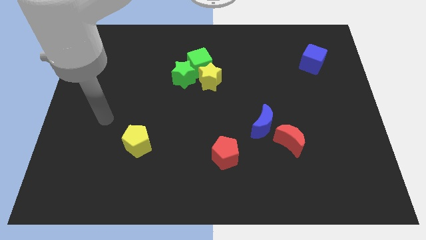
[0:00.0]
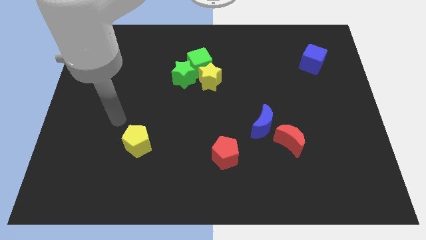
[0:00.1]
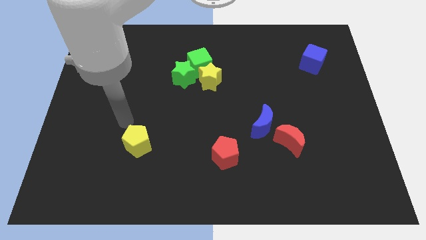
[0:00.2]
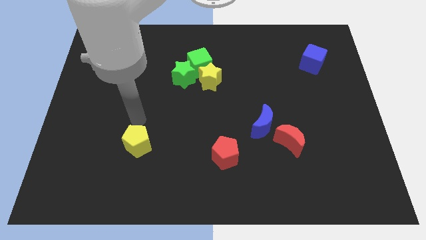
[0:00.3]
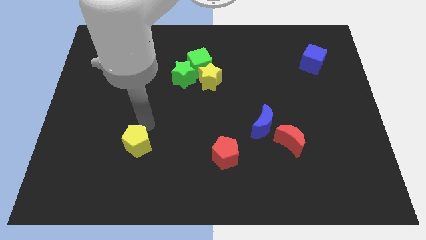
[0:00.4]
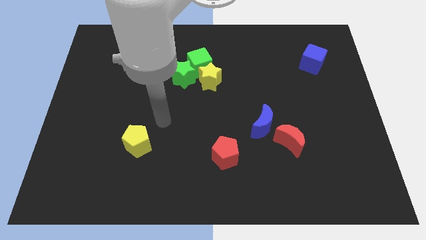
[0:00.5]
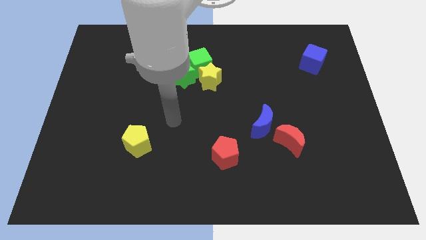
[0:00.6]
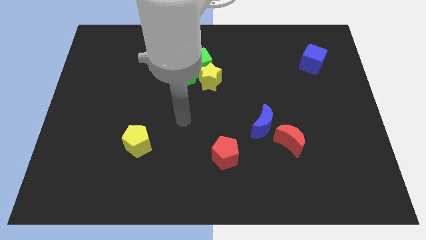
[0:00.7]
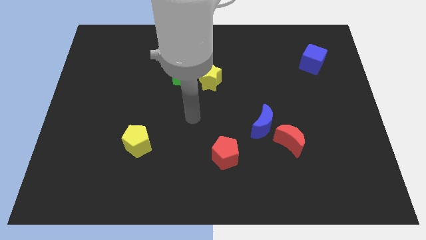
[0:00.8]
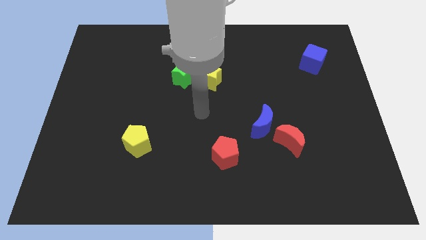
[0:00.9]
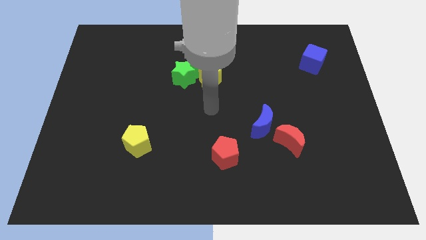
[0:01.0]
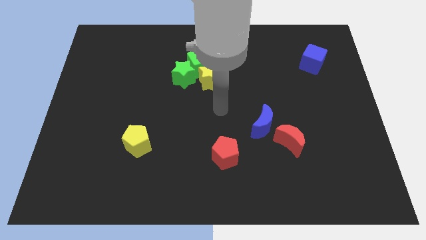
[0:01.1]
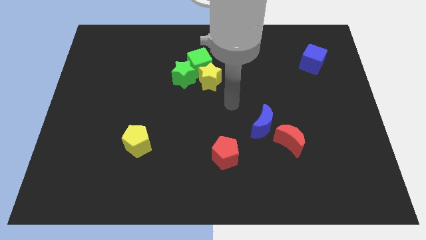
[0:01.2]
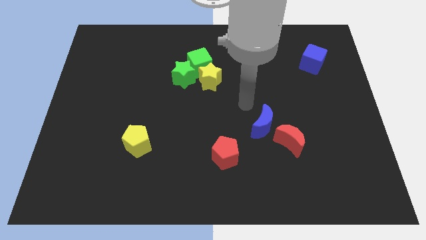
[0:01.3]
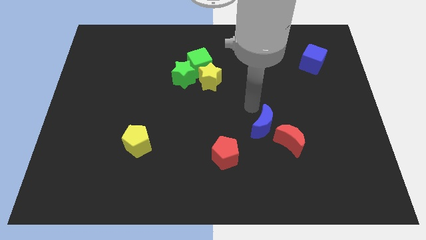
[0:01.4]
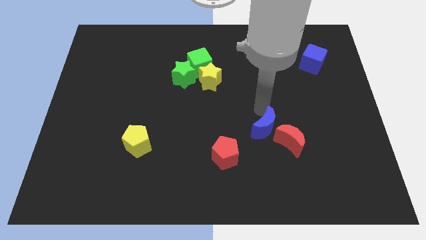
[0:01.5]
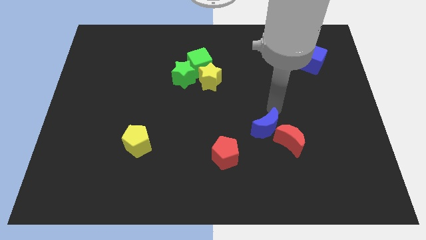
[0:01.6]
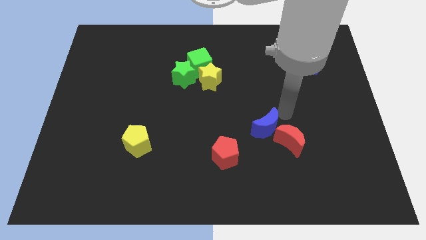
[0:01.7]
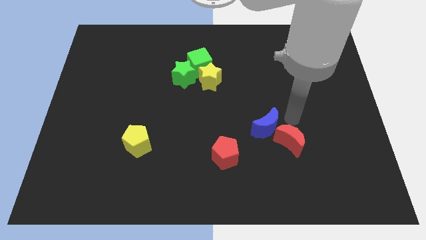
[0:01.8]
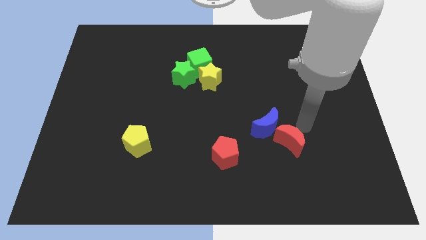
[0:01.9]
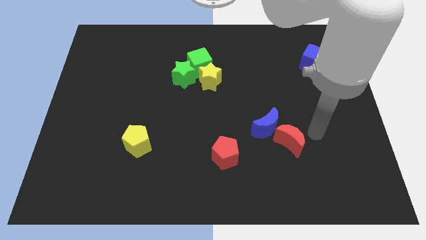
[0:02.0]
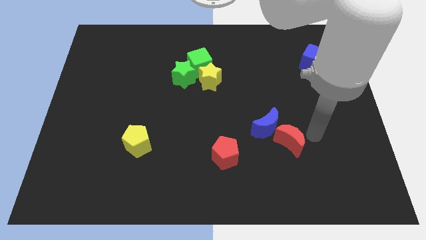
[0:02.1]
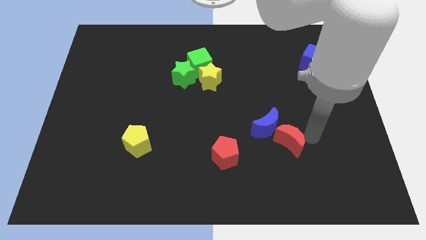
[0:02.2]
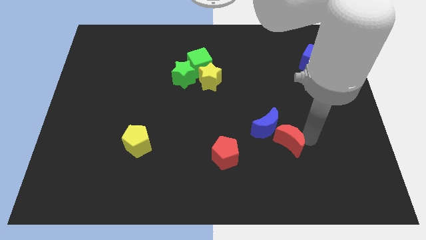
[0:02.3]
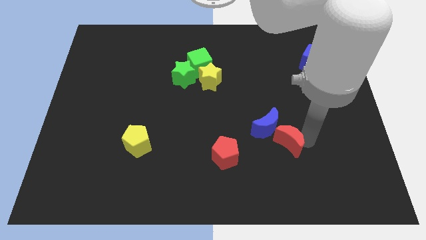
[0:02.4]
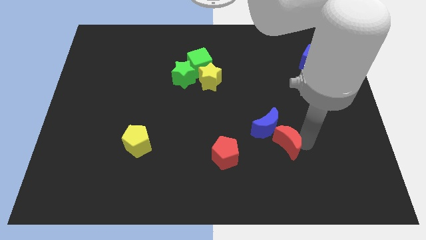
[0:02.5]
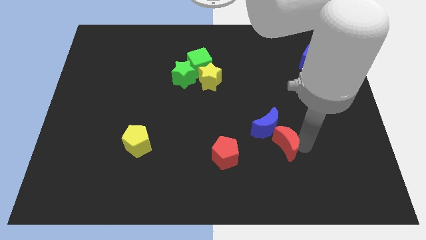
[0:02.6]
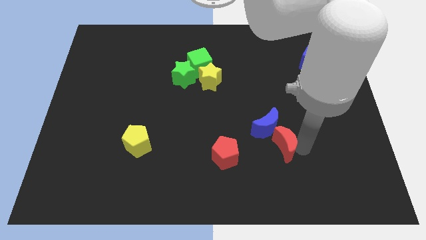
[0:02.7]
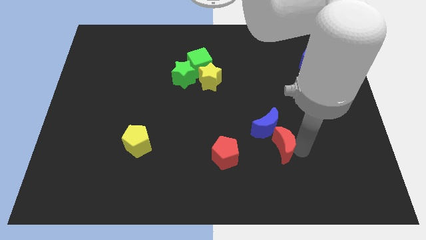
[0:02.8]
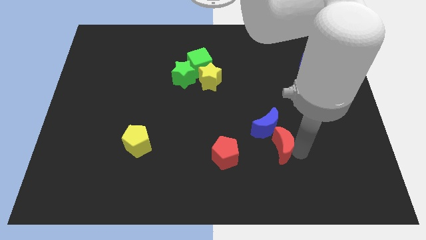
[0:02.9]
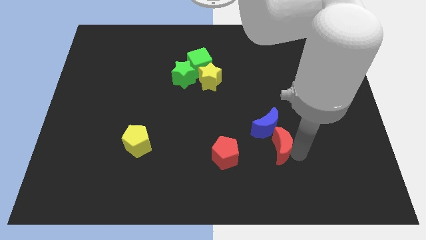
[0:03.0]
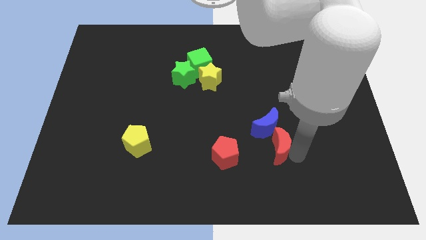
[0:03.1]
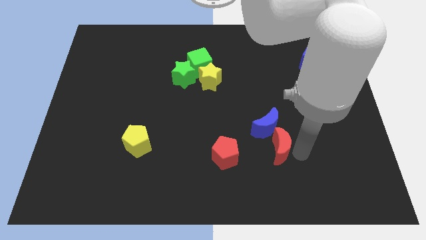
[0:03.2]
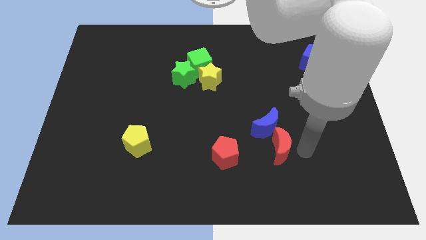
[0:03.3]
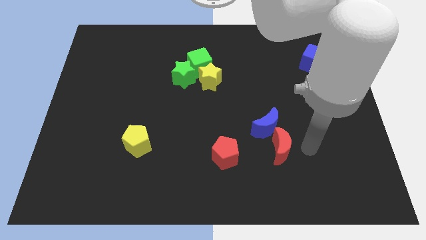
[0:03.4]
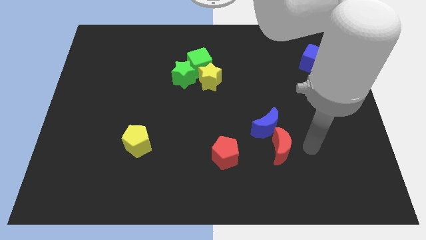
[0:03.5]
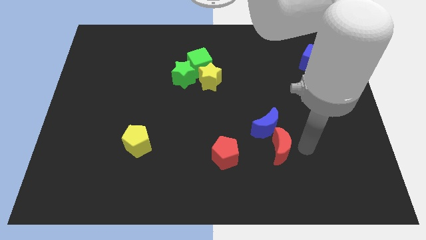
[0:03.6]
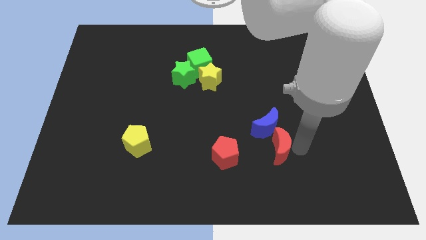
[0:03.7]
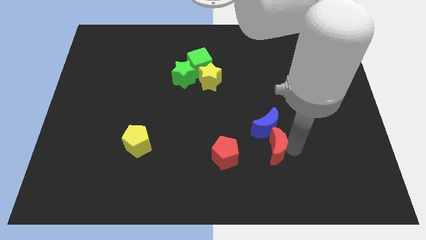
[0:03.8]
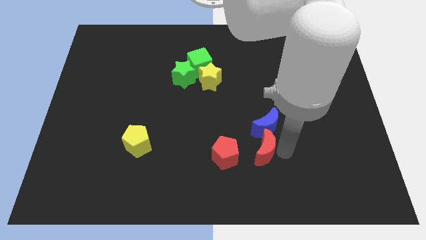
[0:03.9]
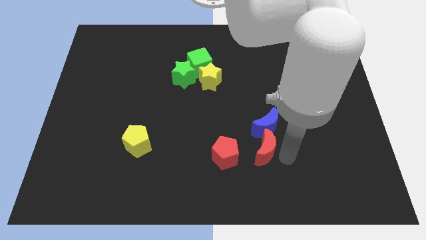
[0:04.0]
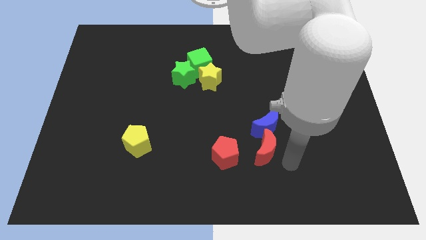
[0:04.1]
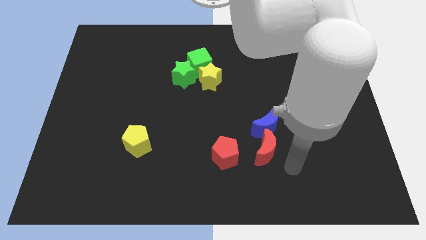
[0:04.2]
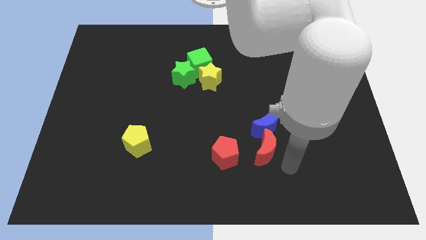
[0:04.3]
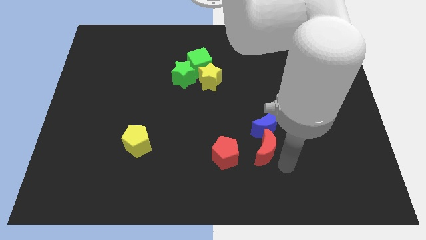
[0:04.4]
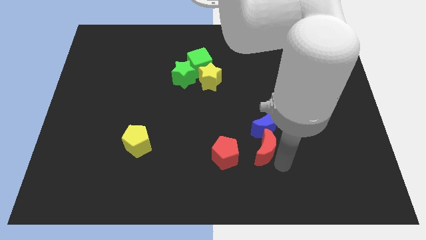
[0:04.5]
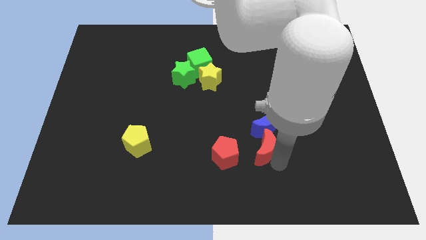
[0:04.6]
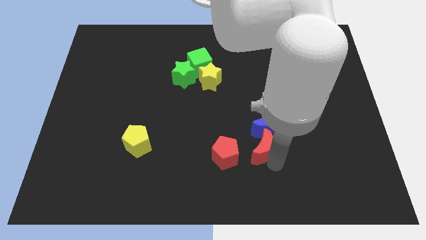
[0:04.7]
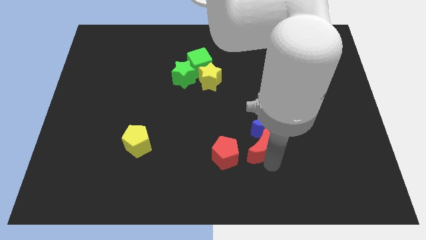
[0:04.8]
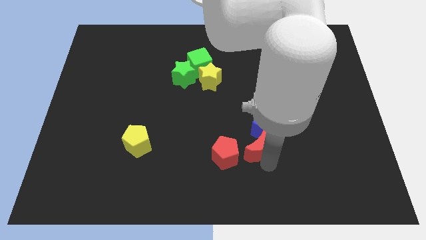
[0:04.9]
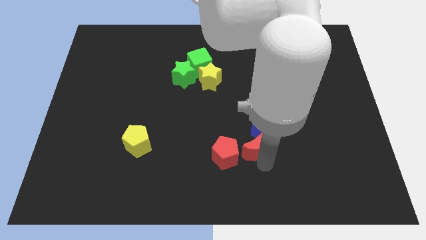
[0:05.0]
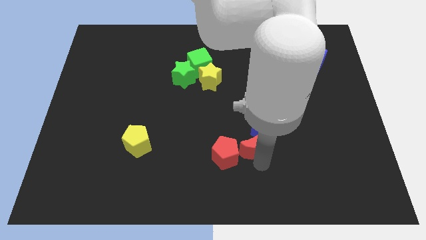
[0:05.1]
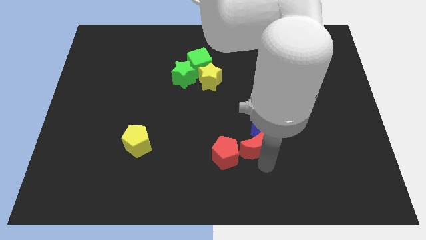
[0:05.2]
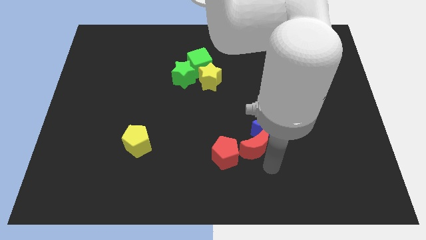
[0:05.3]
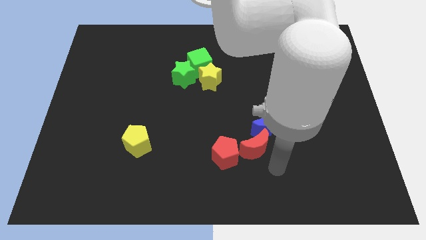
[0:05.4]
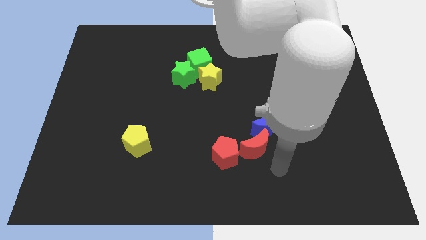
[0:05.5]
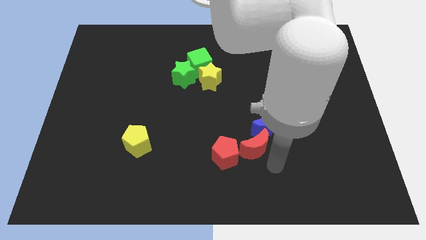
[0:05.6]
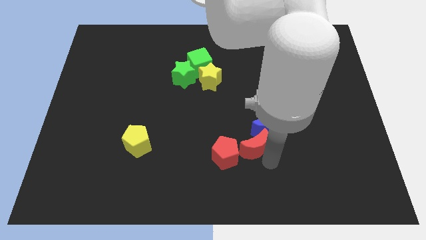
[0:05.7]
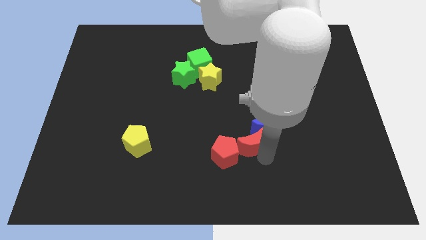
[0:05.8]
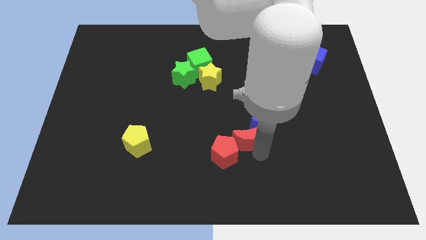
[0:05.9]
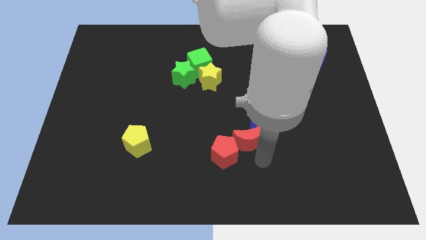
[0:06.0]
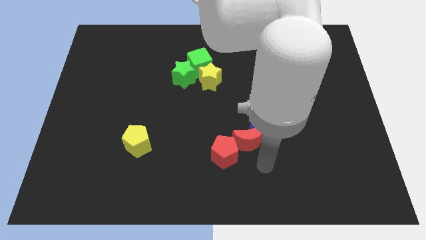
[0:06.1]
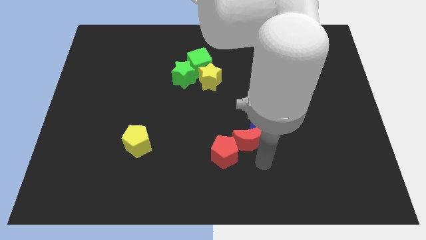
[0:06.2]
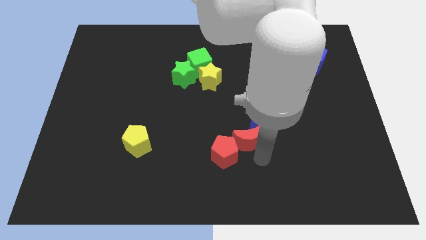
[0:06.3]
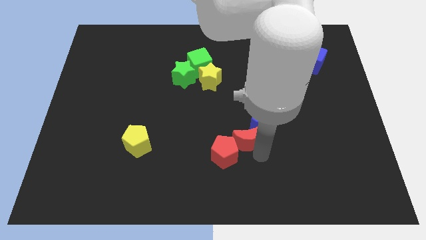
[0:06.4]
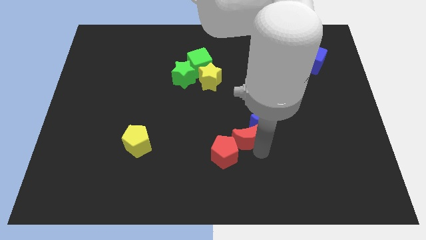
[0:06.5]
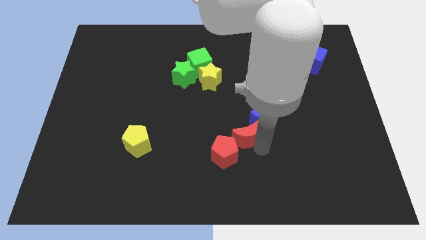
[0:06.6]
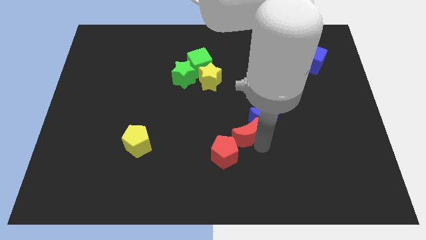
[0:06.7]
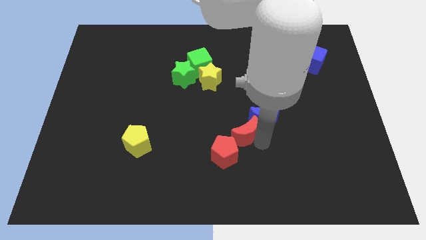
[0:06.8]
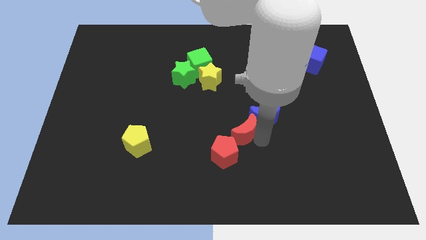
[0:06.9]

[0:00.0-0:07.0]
slightly move the red moon upwards and left

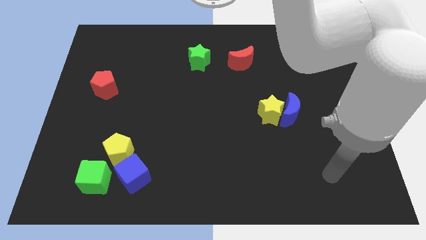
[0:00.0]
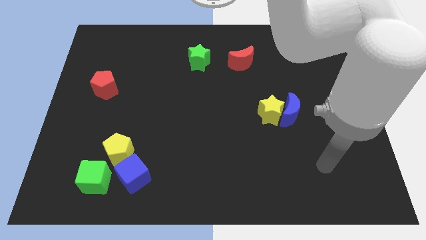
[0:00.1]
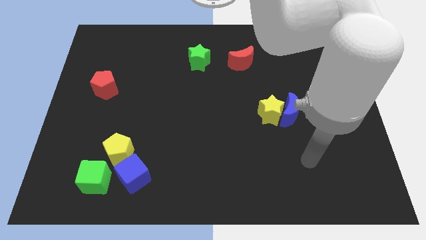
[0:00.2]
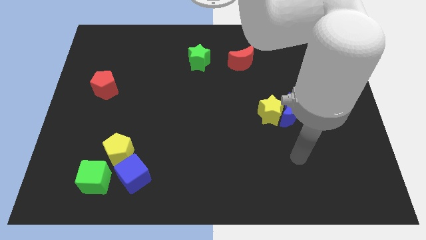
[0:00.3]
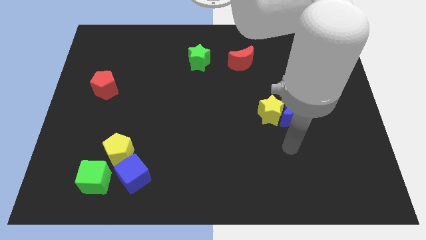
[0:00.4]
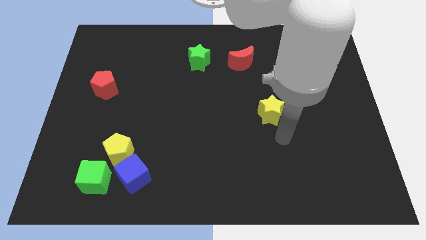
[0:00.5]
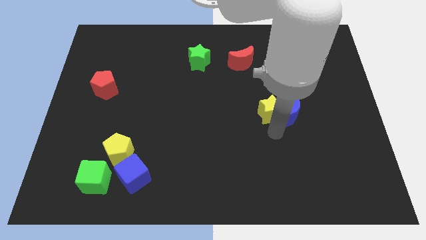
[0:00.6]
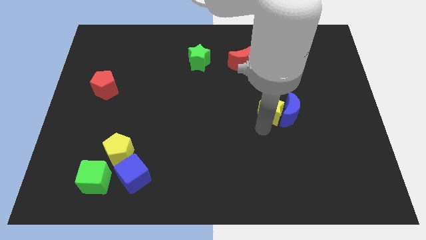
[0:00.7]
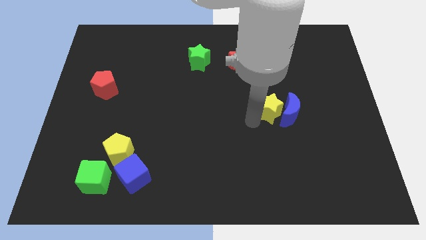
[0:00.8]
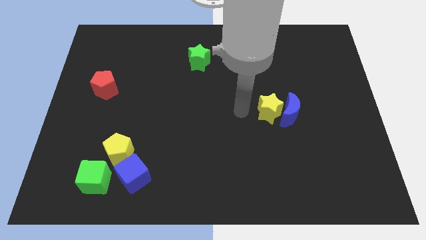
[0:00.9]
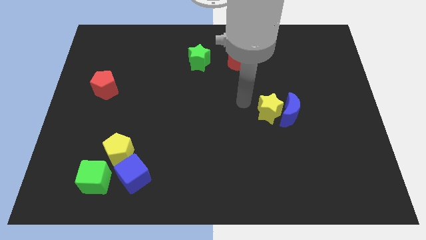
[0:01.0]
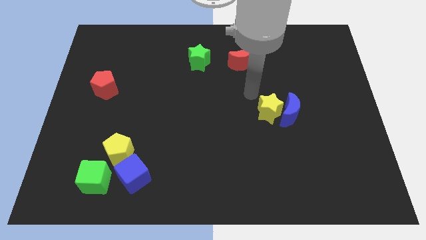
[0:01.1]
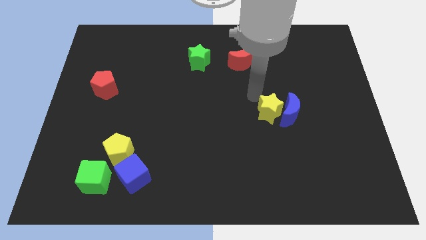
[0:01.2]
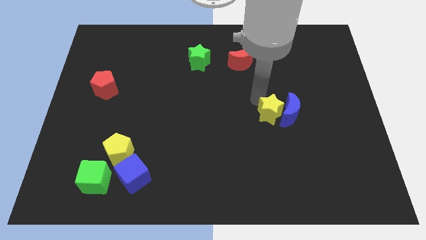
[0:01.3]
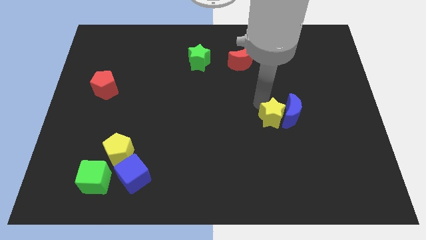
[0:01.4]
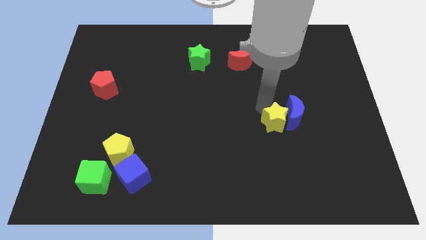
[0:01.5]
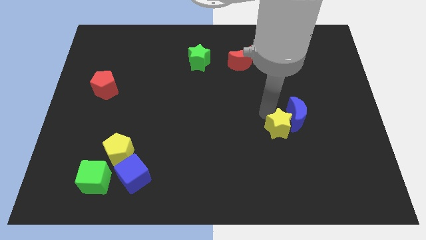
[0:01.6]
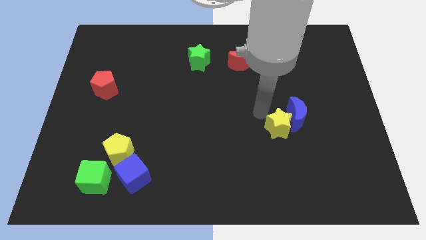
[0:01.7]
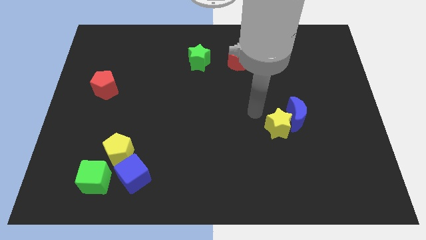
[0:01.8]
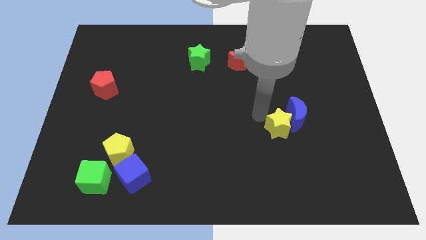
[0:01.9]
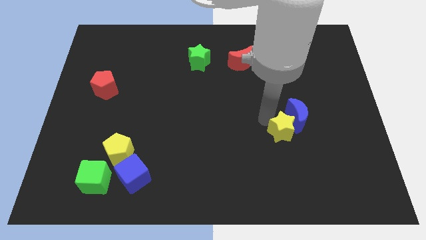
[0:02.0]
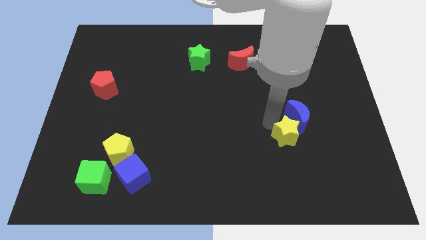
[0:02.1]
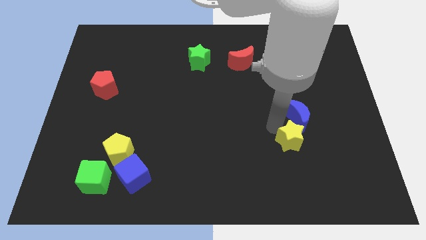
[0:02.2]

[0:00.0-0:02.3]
move the yellow star down and right somewhat
